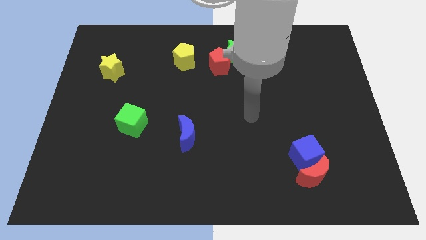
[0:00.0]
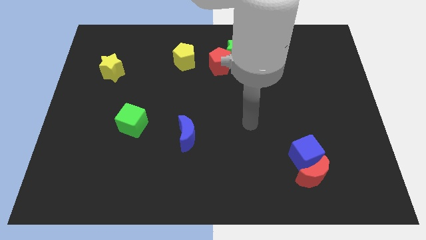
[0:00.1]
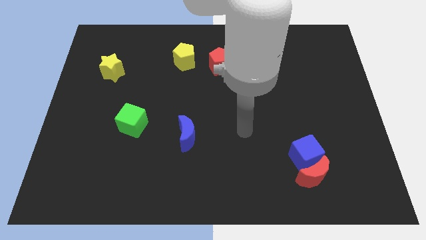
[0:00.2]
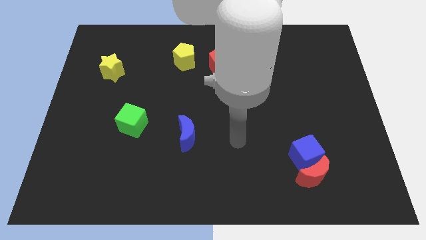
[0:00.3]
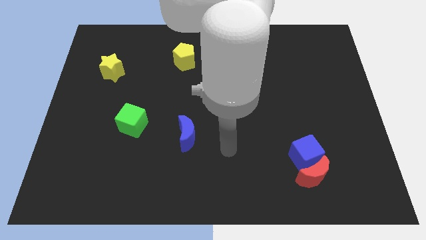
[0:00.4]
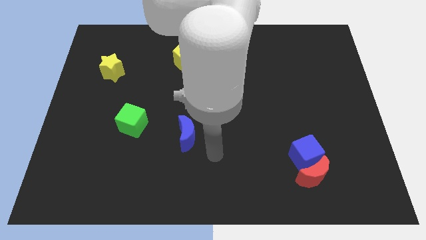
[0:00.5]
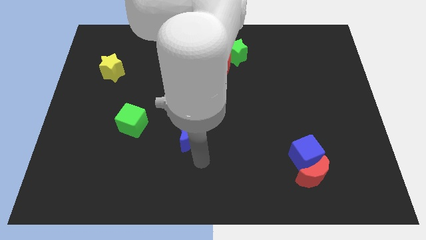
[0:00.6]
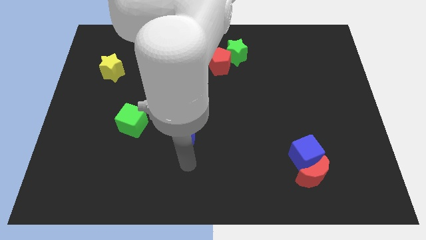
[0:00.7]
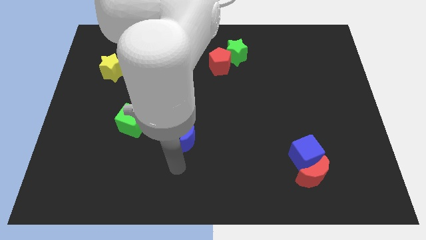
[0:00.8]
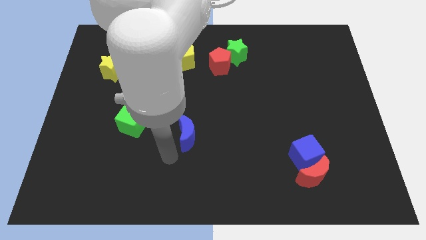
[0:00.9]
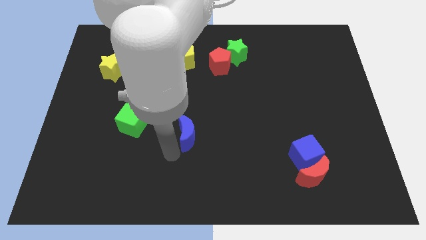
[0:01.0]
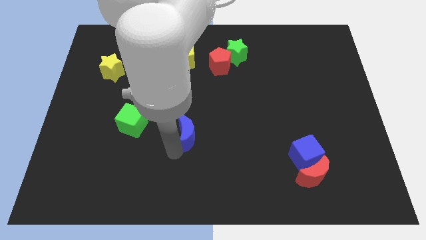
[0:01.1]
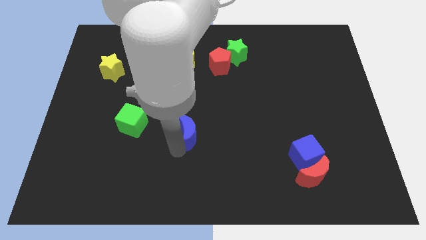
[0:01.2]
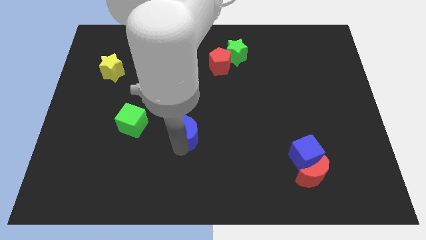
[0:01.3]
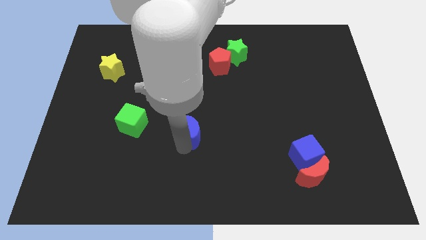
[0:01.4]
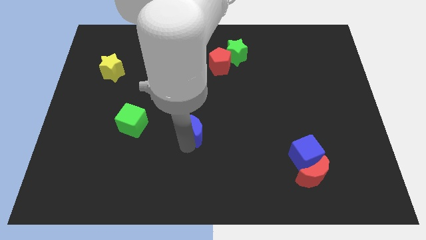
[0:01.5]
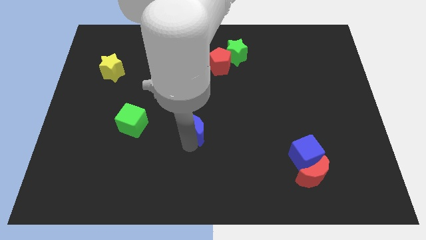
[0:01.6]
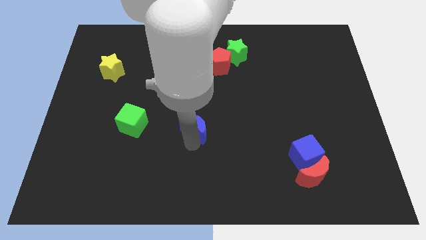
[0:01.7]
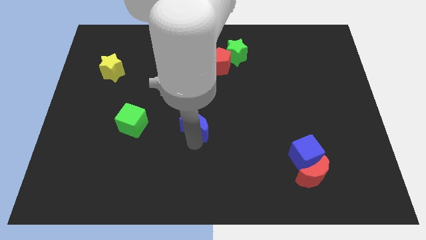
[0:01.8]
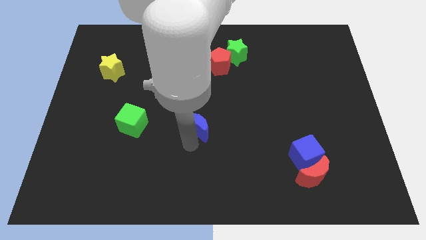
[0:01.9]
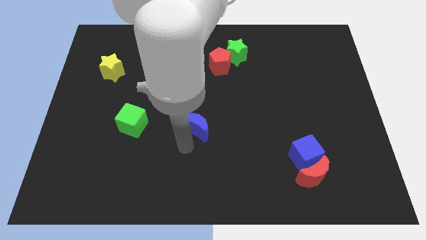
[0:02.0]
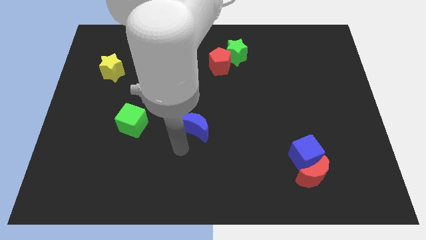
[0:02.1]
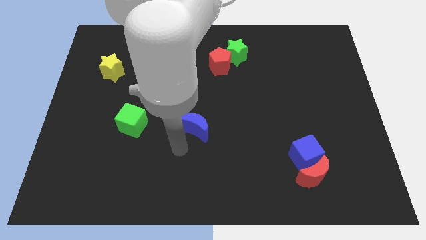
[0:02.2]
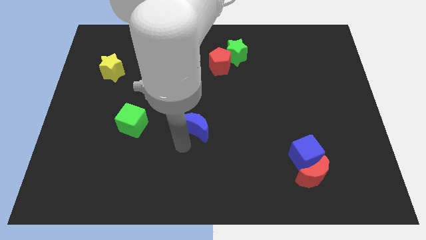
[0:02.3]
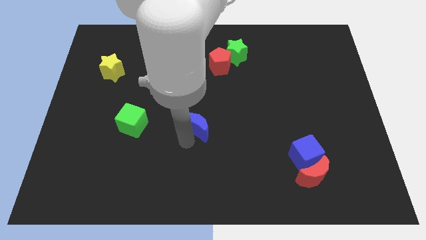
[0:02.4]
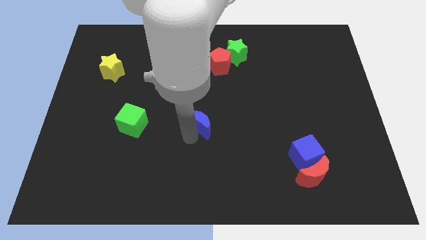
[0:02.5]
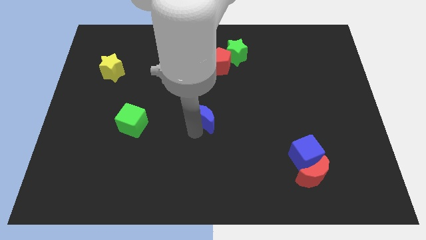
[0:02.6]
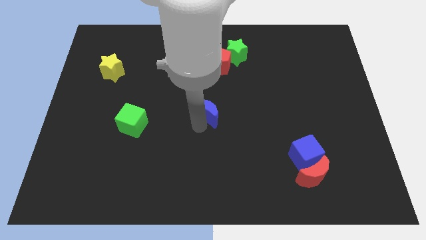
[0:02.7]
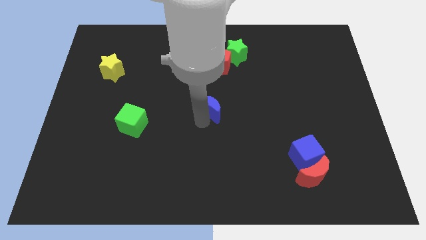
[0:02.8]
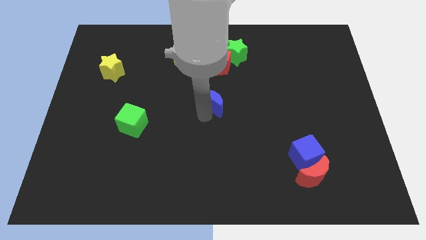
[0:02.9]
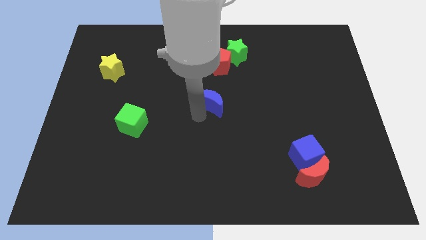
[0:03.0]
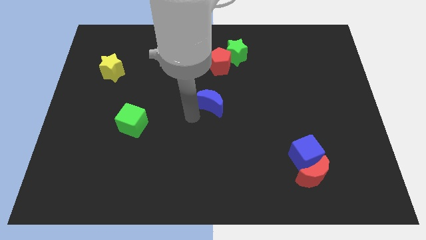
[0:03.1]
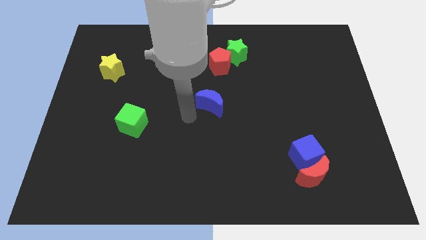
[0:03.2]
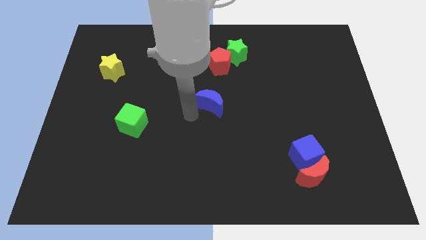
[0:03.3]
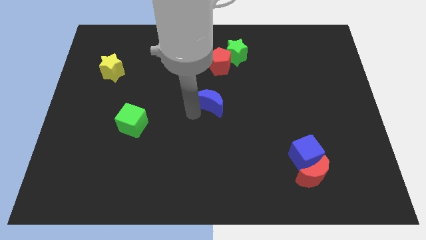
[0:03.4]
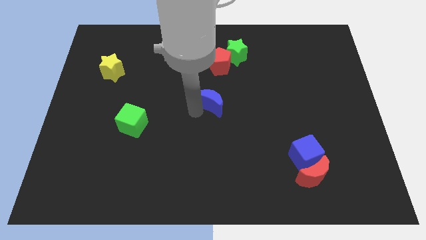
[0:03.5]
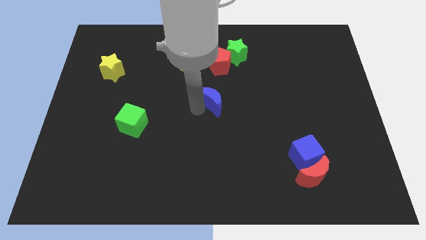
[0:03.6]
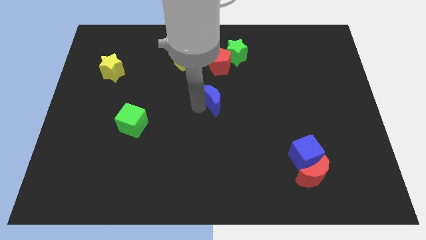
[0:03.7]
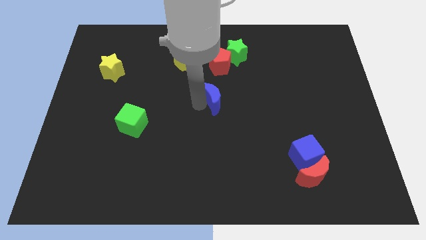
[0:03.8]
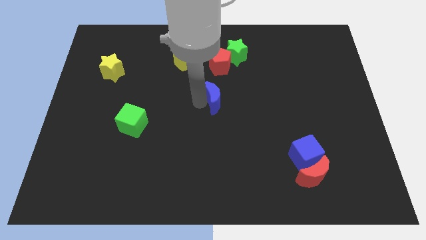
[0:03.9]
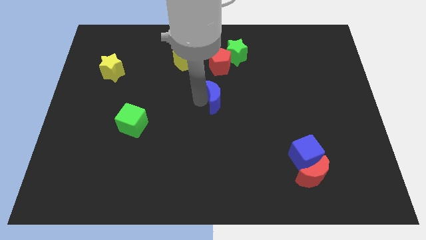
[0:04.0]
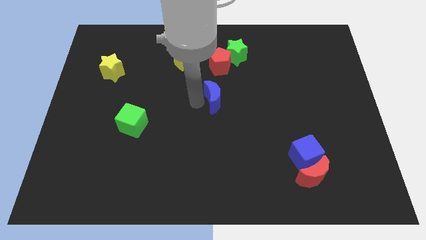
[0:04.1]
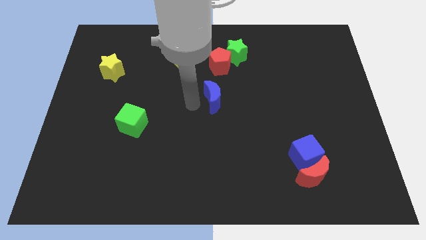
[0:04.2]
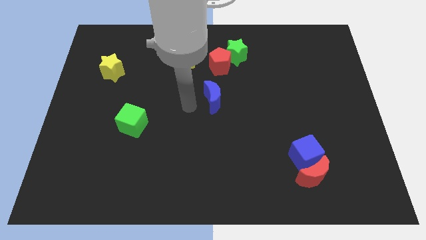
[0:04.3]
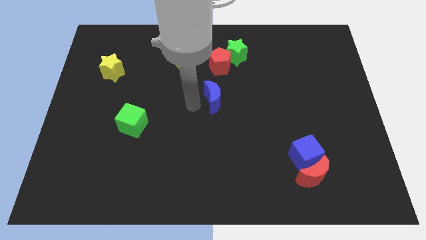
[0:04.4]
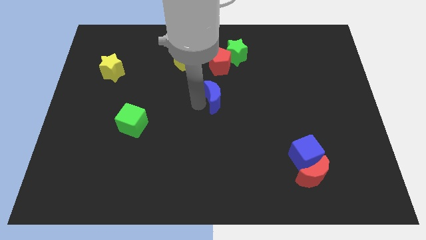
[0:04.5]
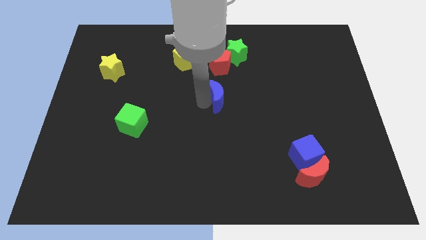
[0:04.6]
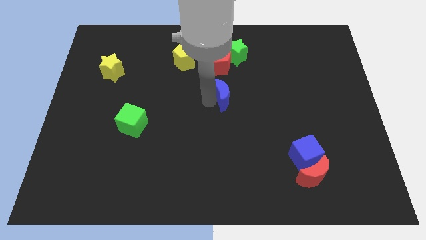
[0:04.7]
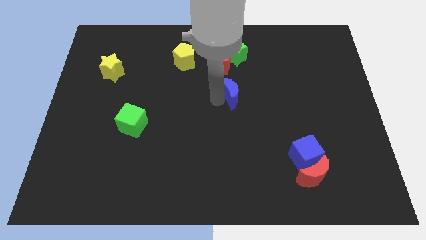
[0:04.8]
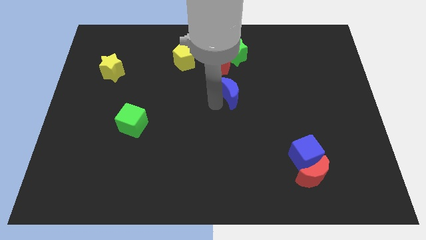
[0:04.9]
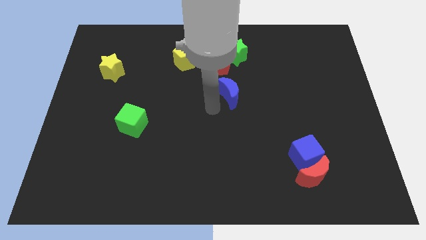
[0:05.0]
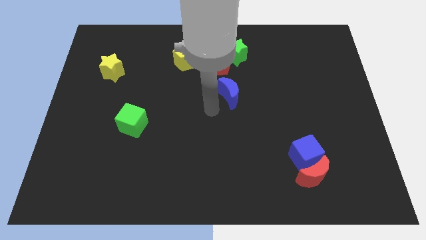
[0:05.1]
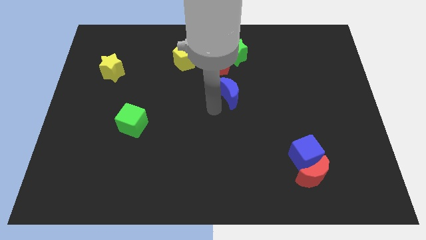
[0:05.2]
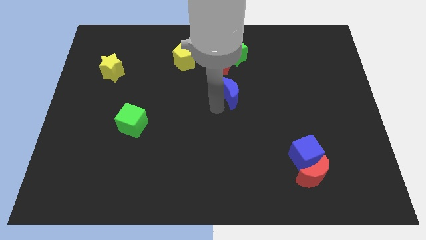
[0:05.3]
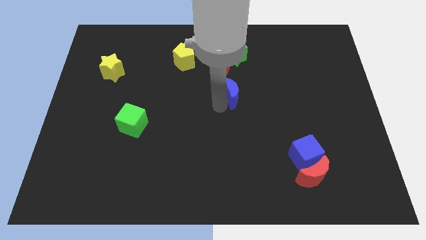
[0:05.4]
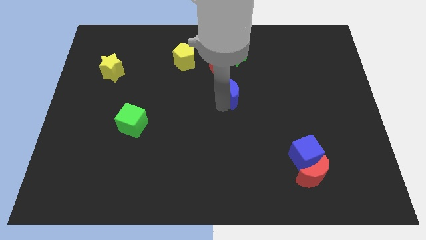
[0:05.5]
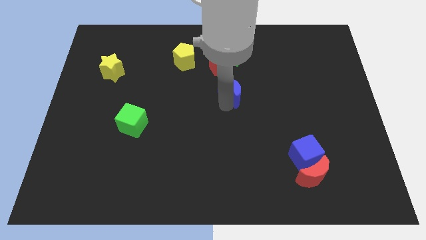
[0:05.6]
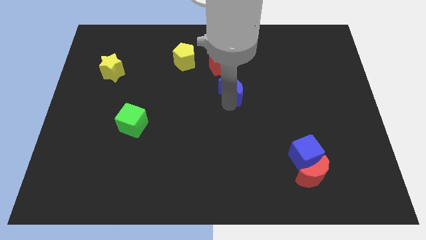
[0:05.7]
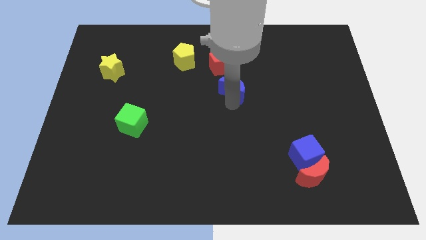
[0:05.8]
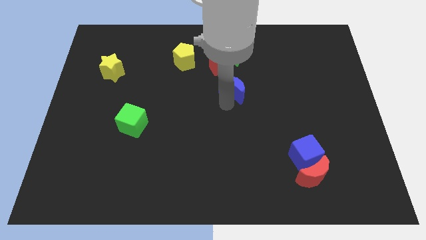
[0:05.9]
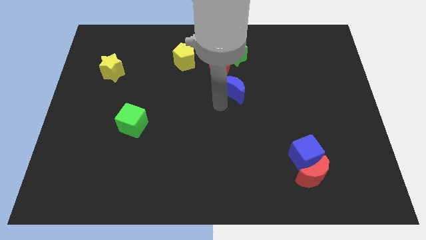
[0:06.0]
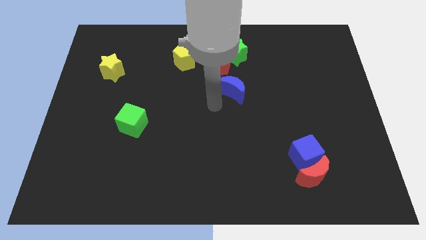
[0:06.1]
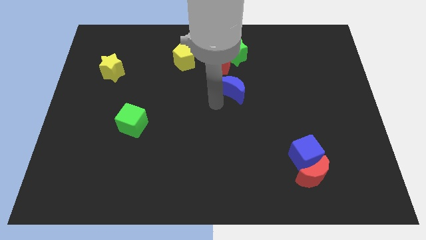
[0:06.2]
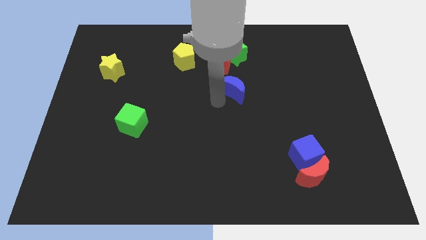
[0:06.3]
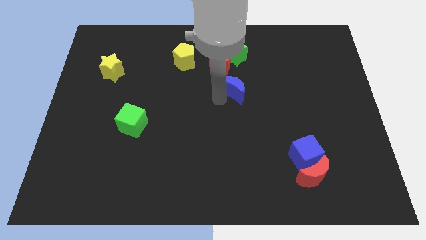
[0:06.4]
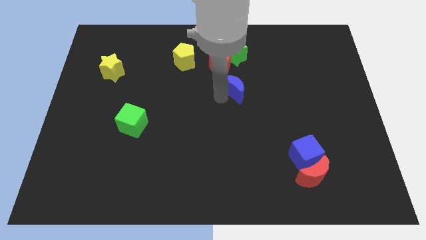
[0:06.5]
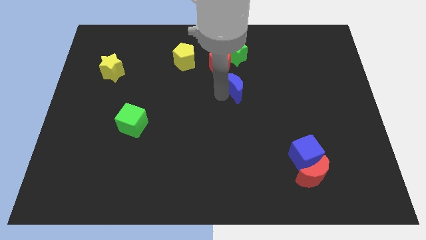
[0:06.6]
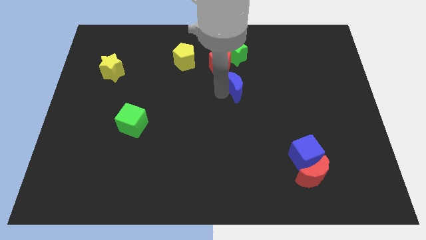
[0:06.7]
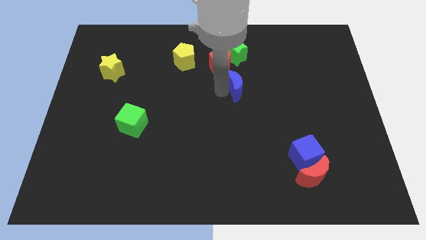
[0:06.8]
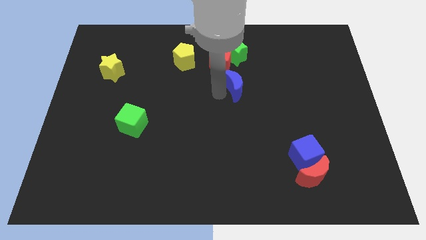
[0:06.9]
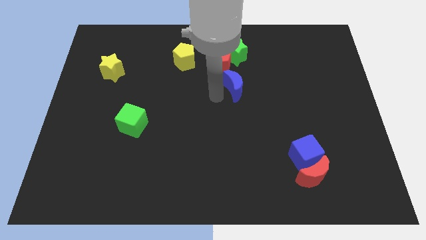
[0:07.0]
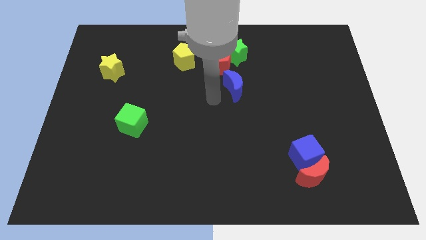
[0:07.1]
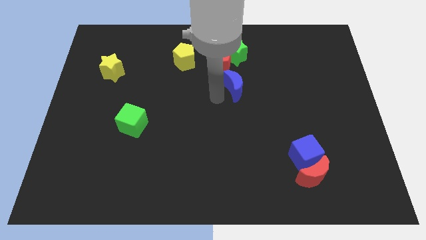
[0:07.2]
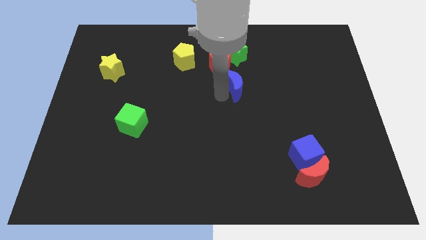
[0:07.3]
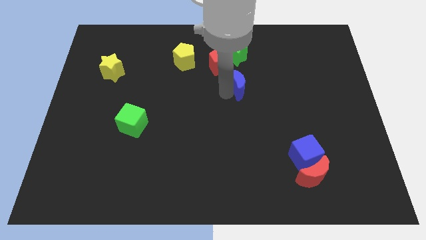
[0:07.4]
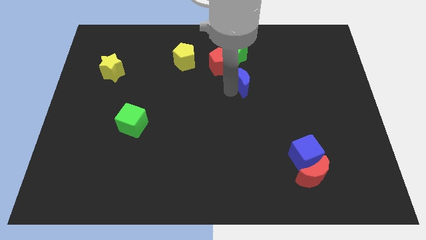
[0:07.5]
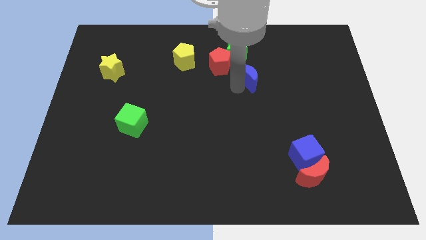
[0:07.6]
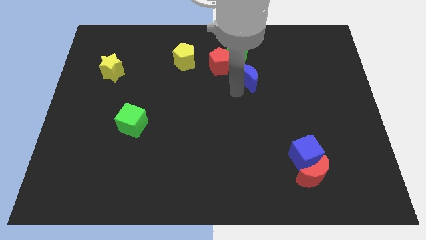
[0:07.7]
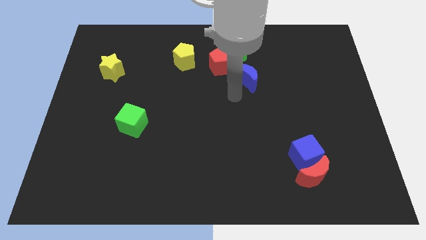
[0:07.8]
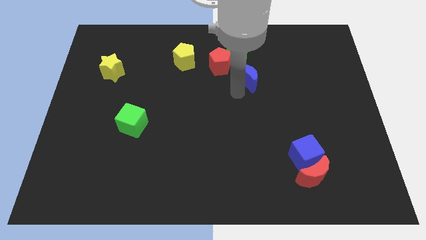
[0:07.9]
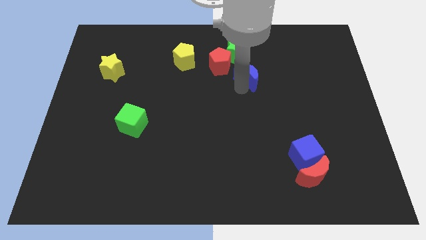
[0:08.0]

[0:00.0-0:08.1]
push the blue moon to the right of the red pentagon
